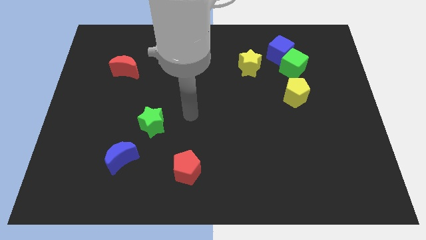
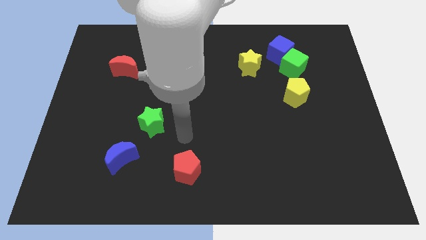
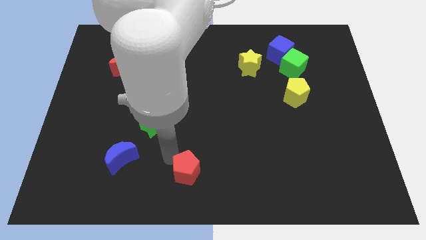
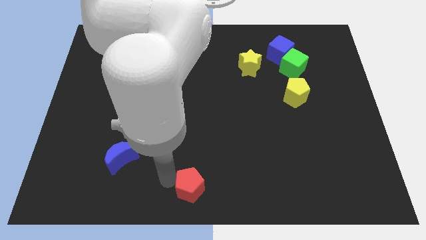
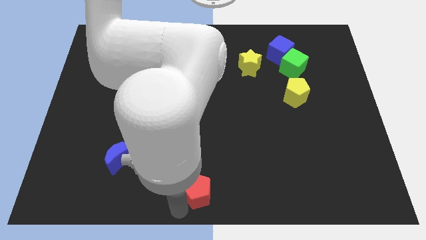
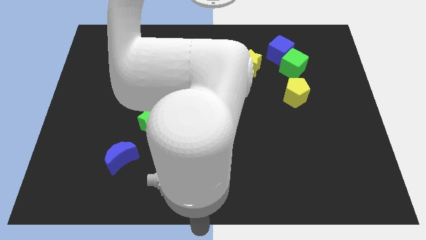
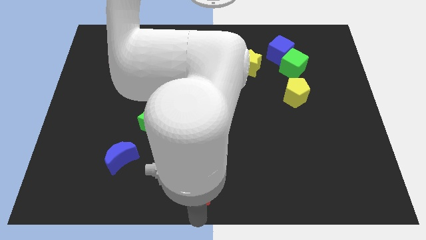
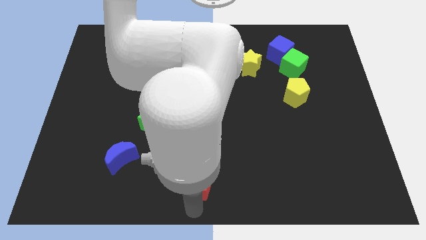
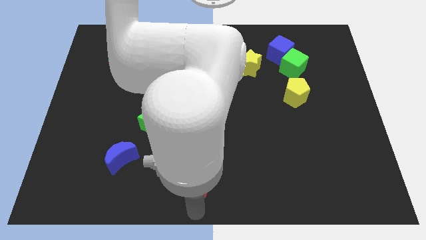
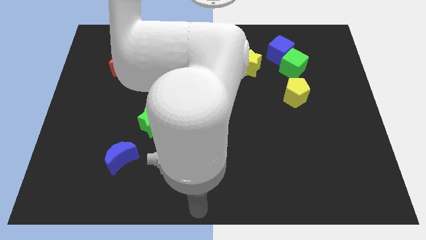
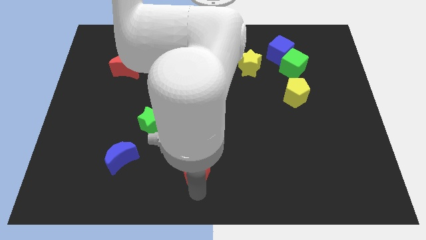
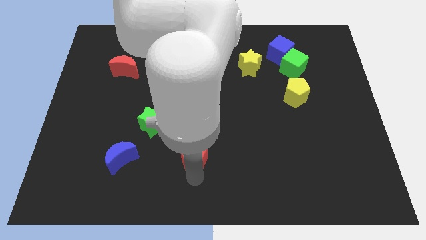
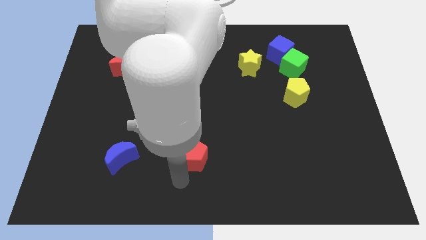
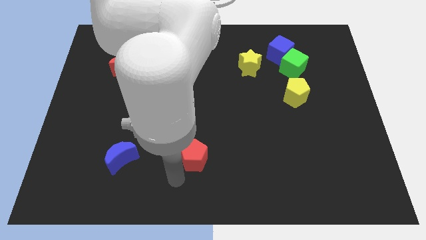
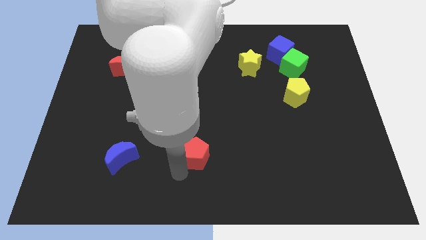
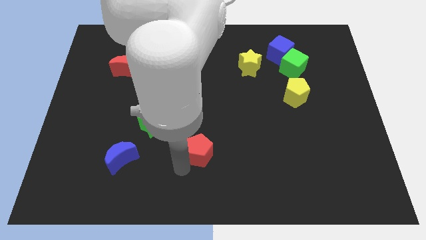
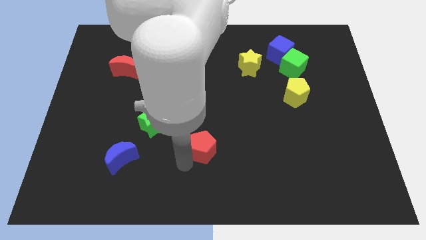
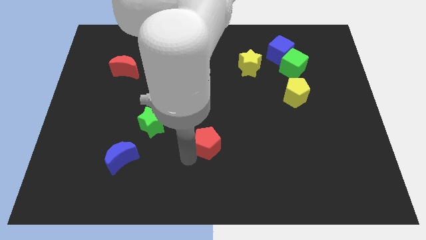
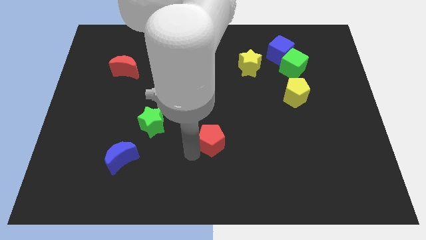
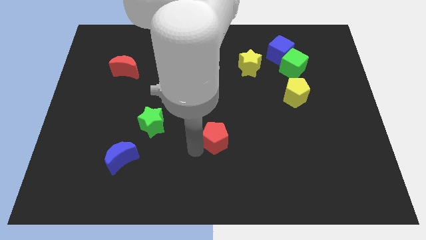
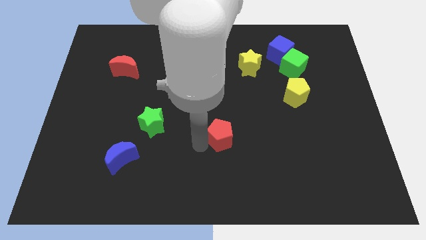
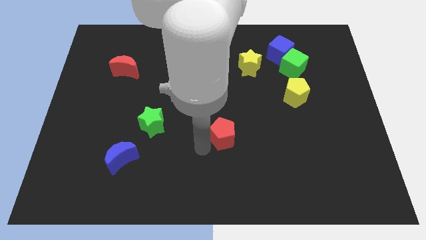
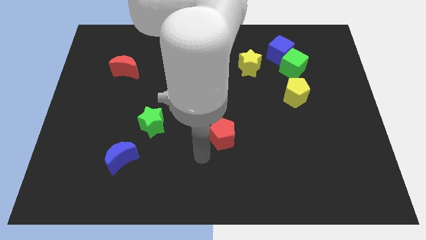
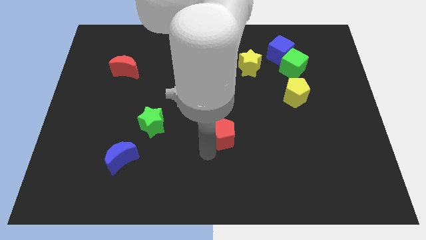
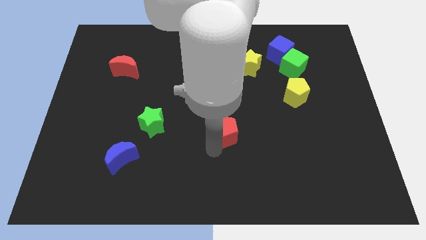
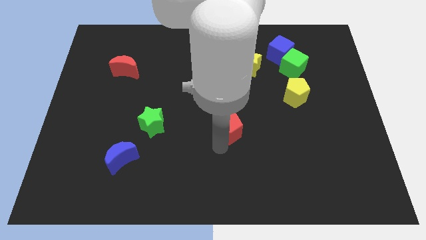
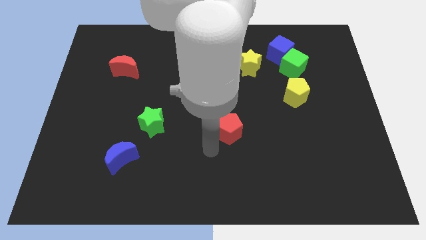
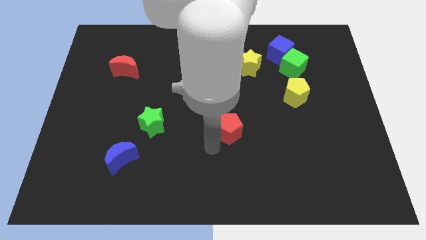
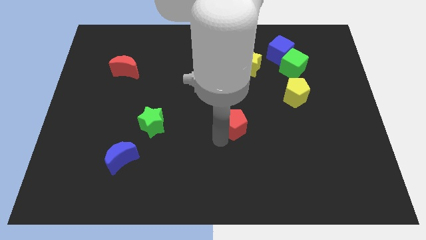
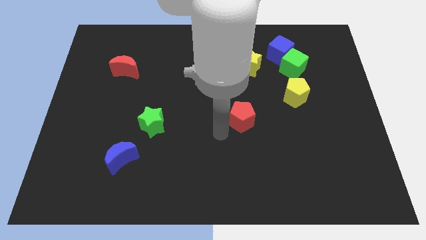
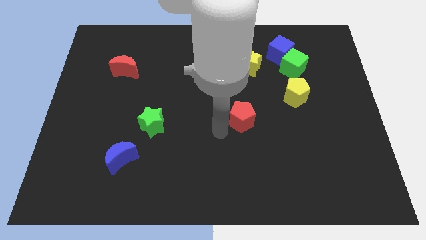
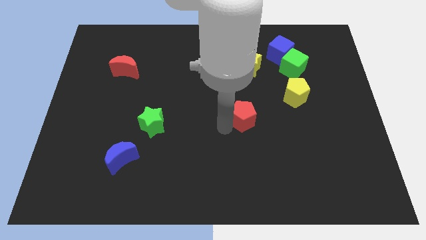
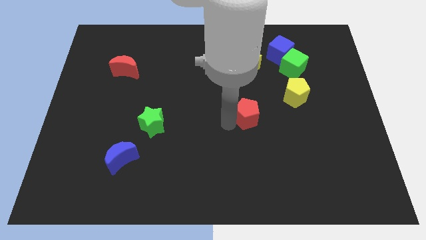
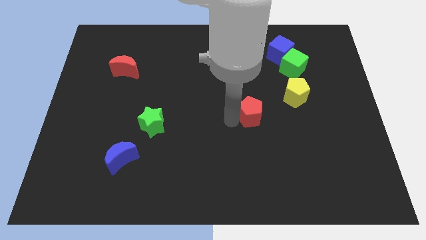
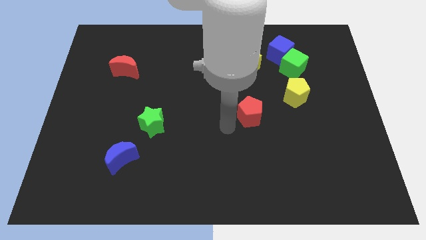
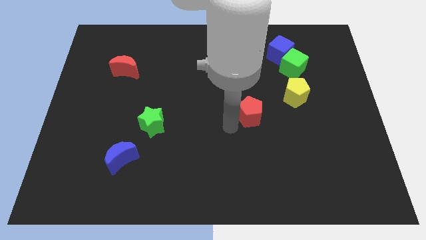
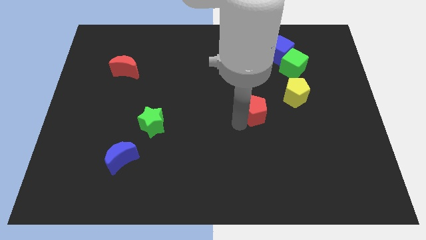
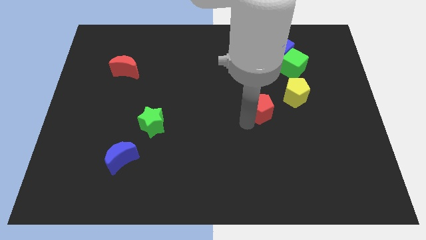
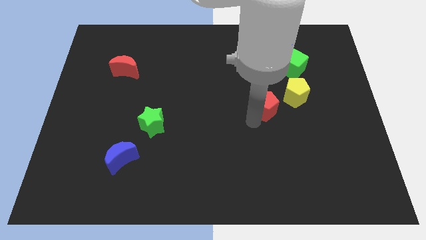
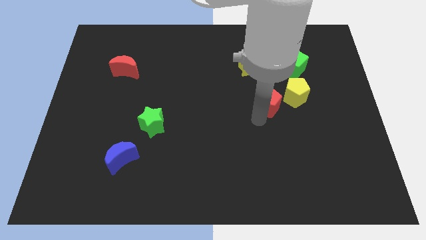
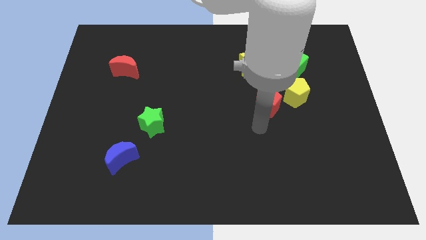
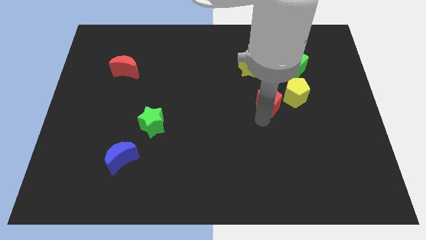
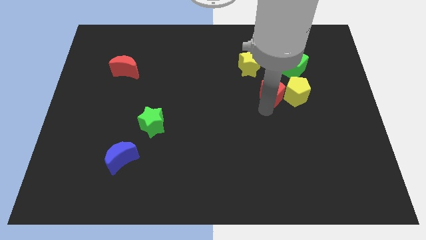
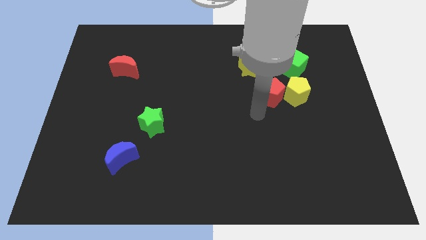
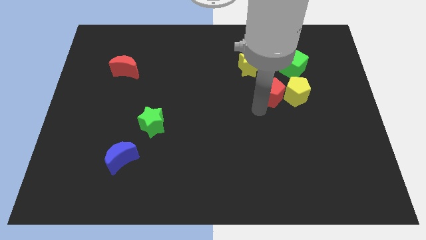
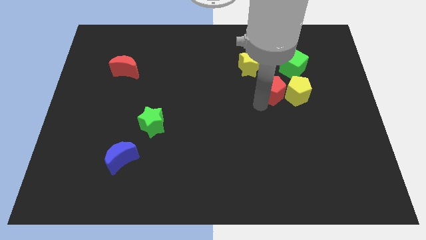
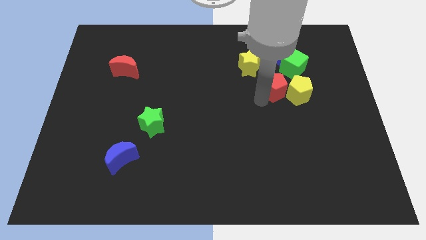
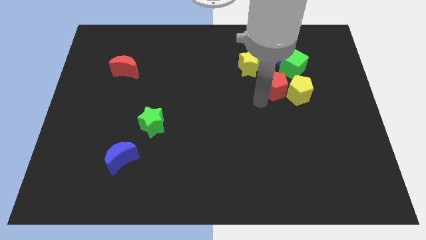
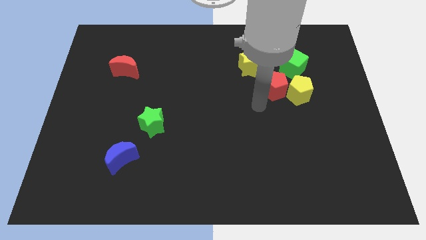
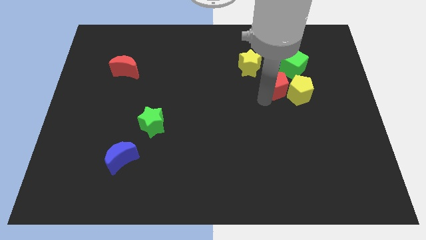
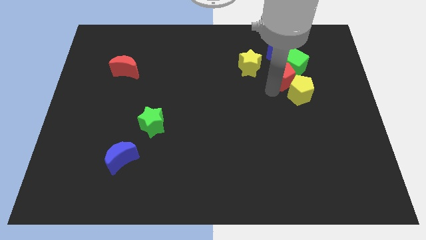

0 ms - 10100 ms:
slide the red pentagon close to the green cube

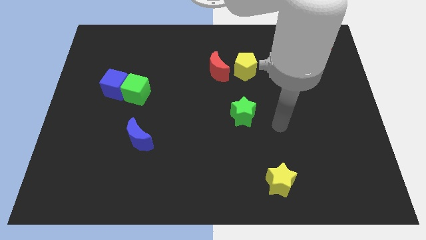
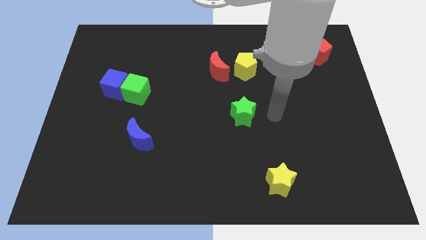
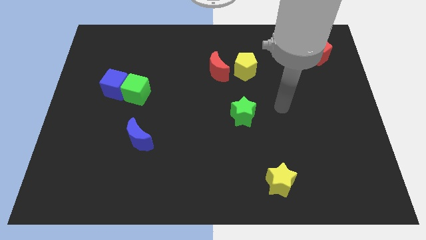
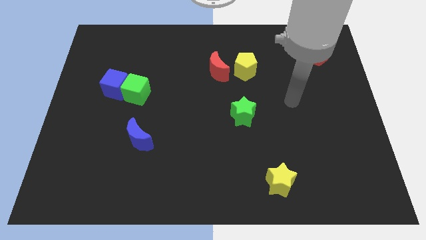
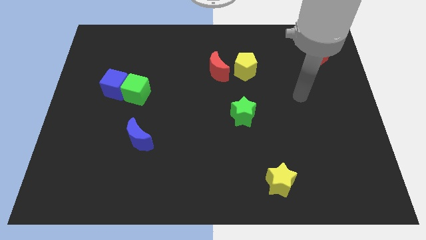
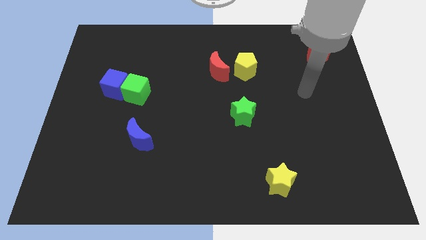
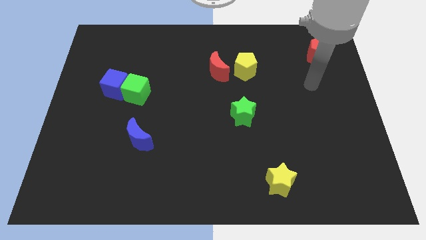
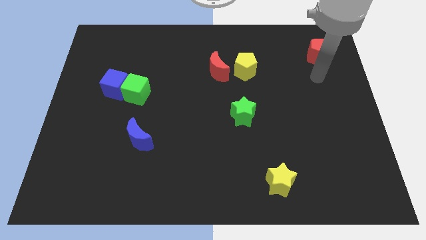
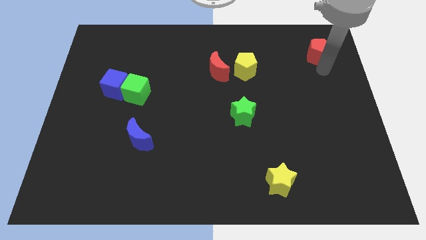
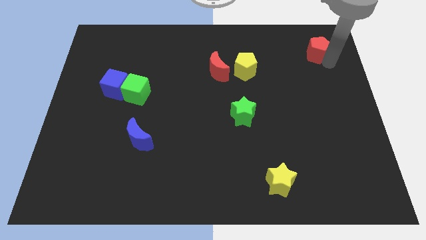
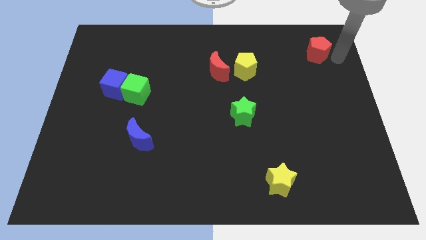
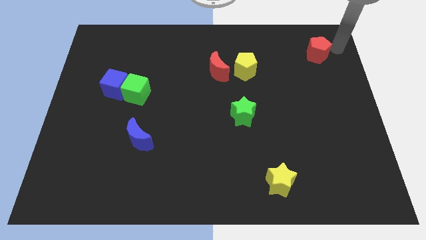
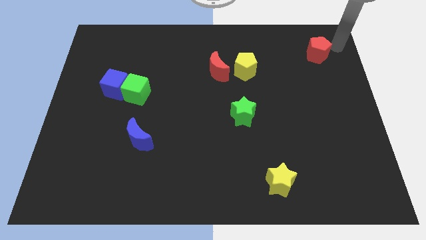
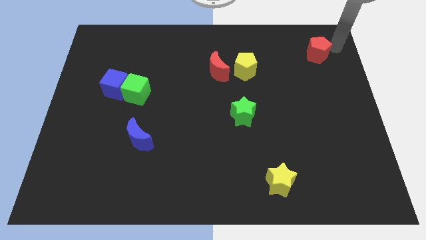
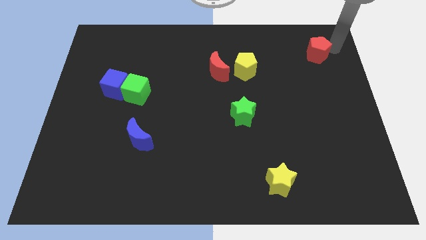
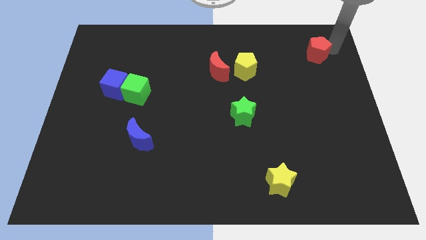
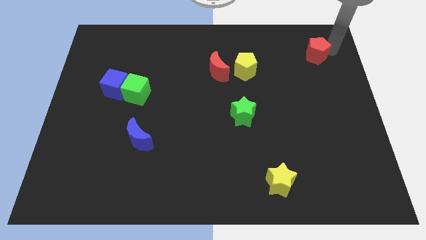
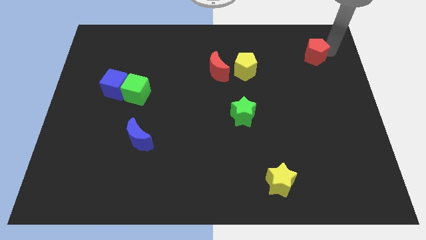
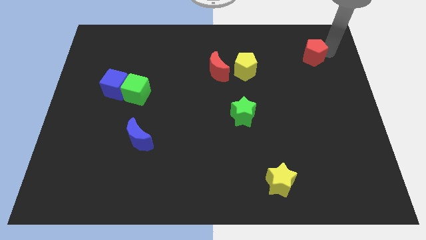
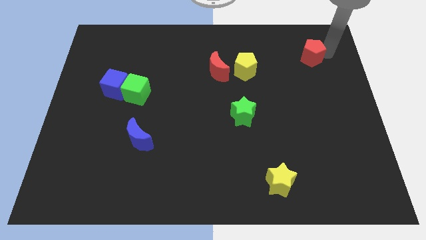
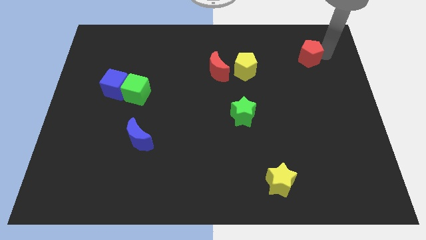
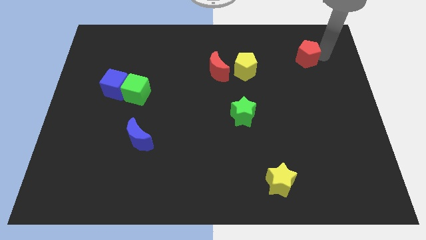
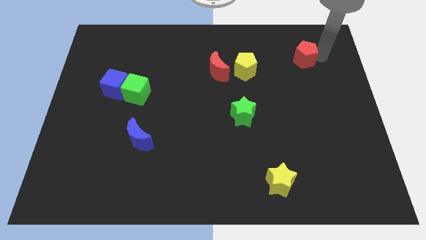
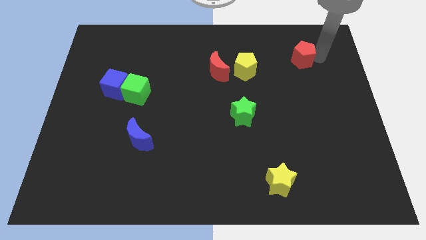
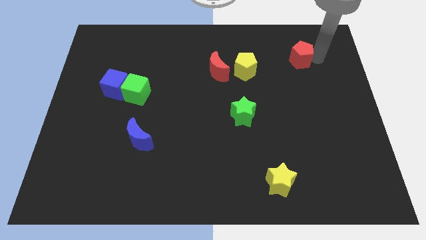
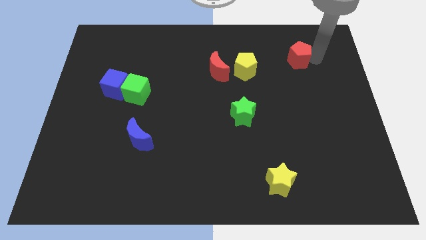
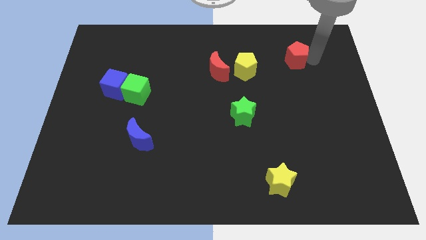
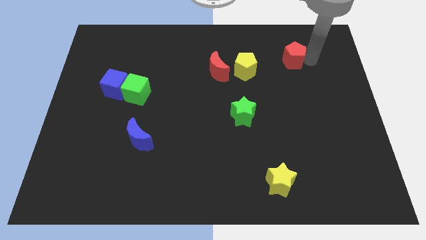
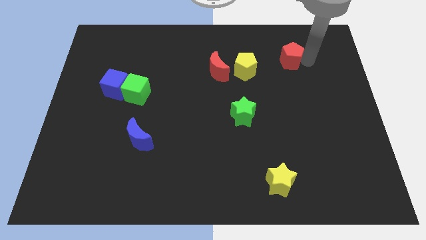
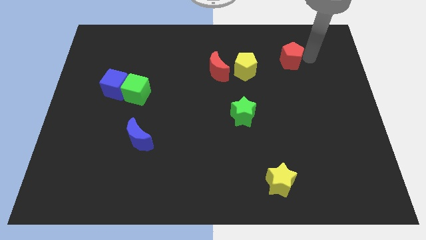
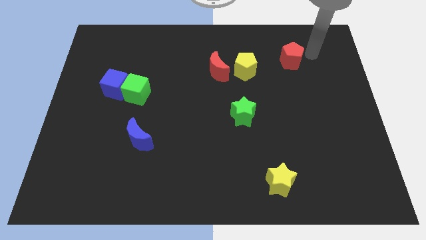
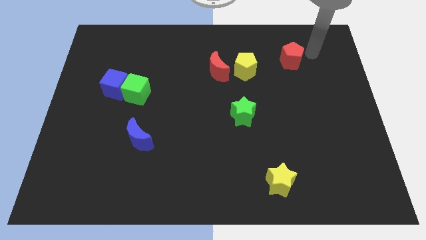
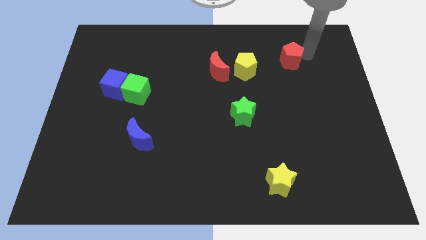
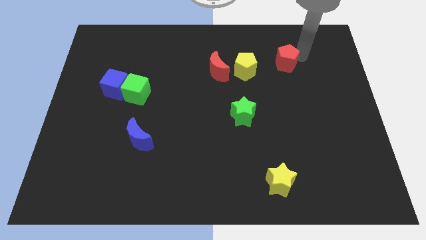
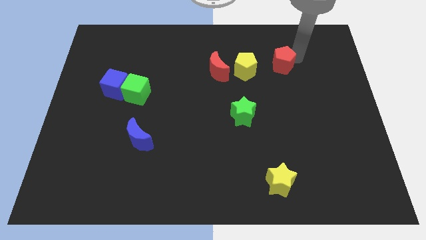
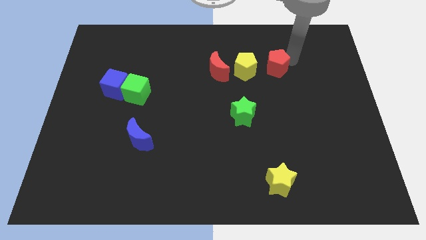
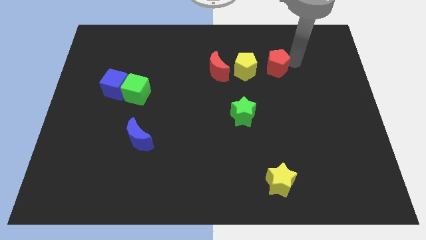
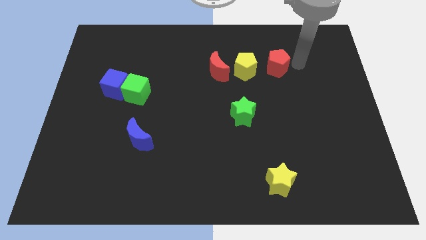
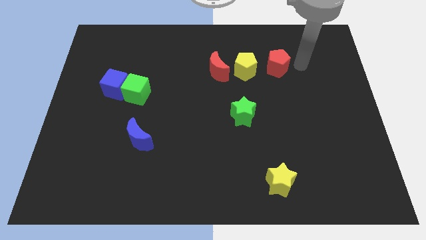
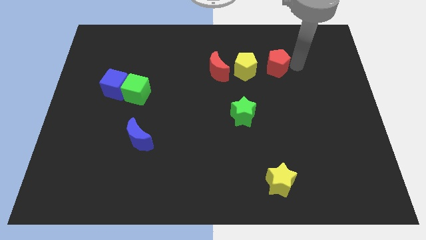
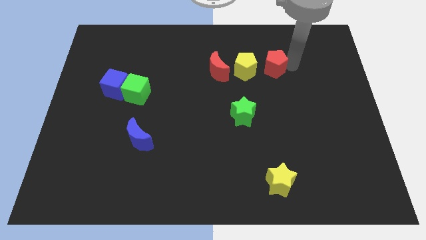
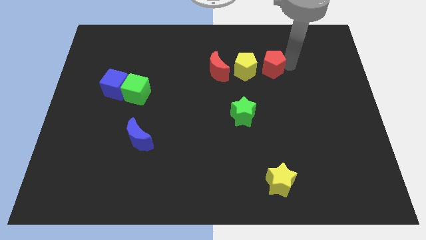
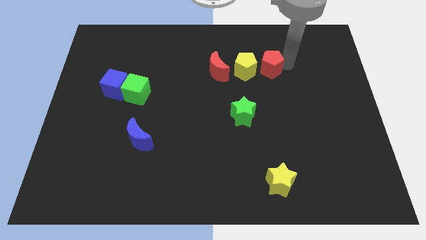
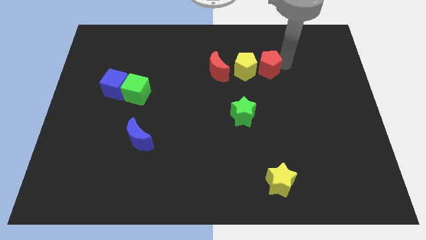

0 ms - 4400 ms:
put the red pentagon to the yellow pentagon
